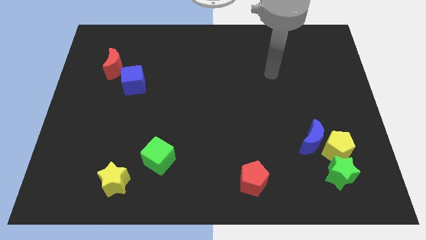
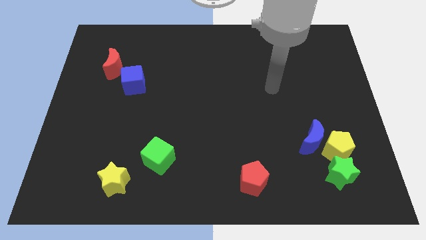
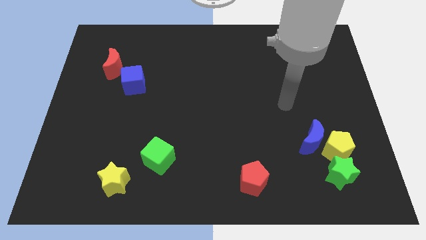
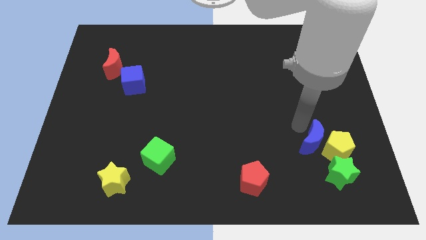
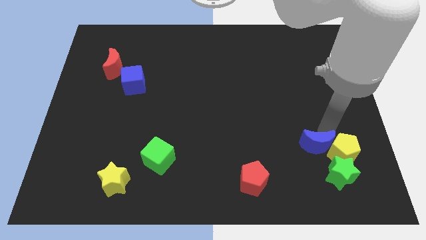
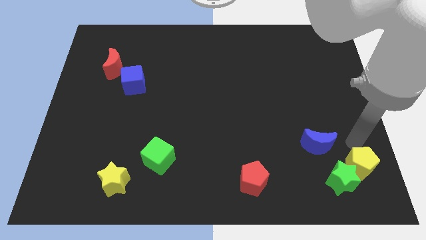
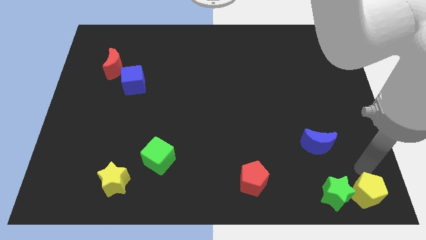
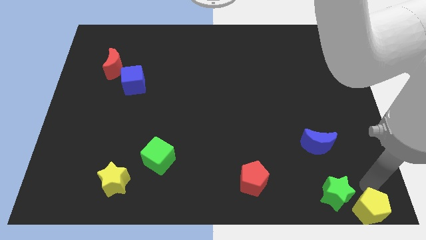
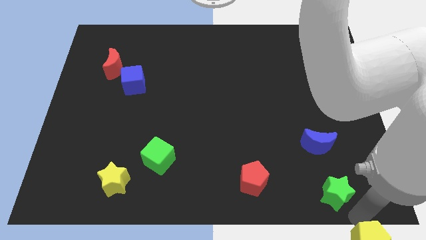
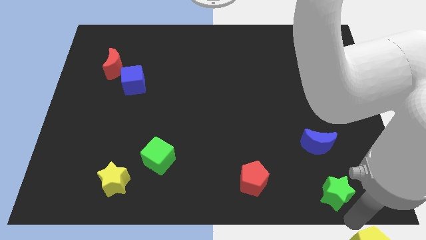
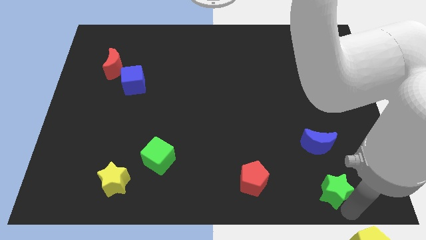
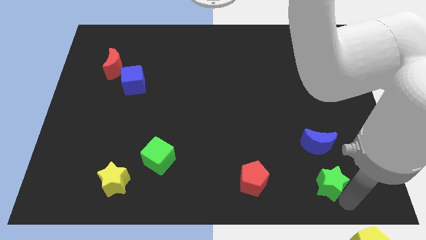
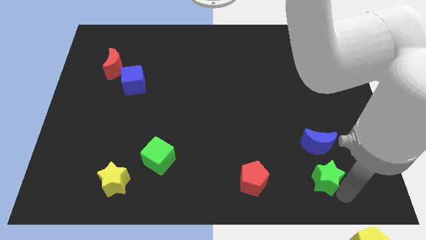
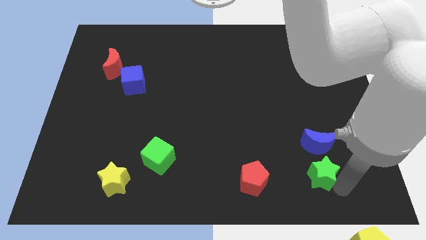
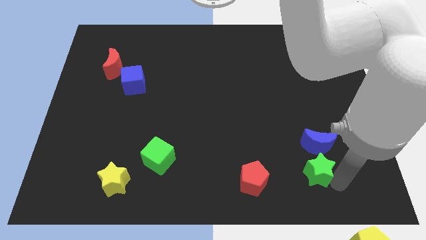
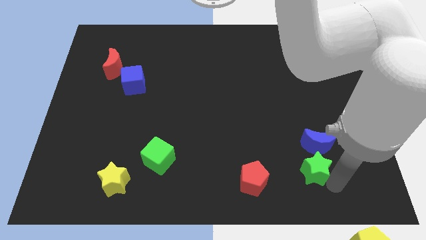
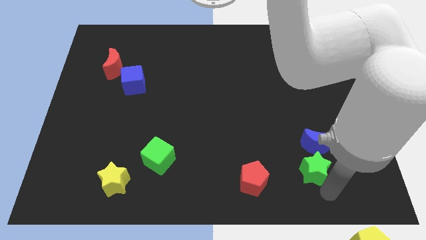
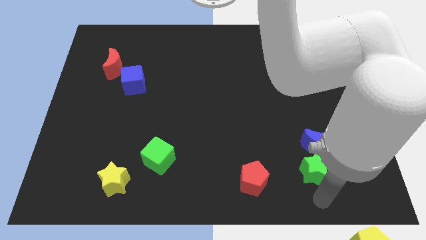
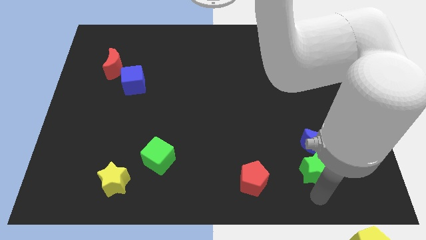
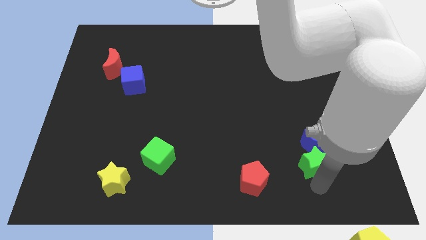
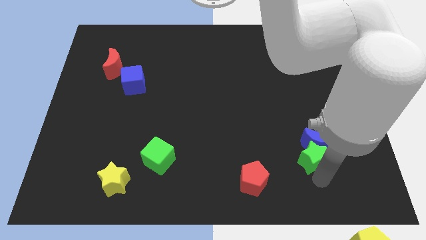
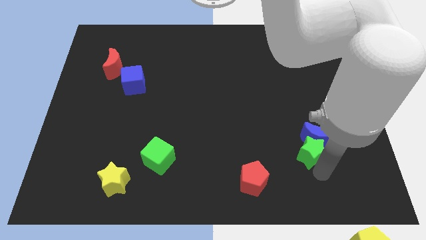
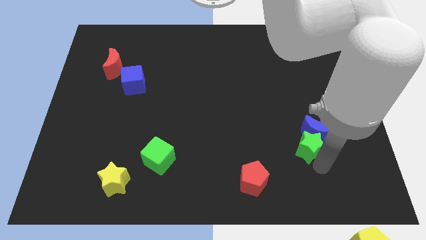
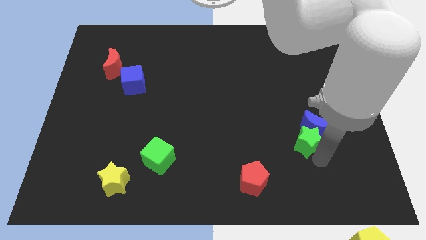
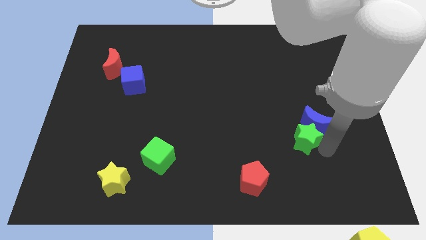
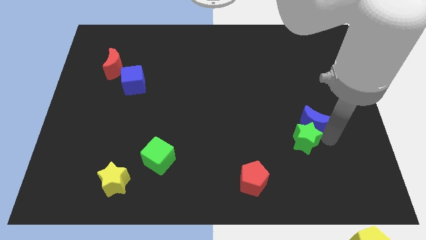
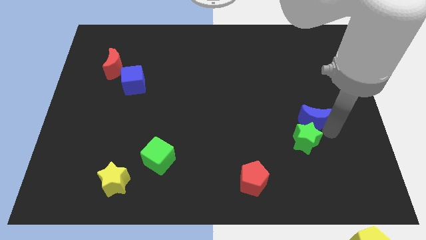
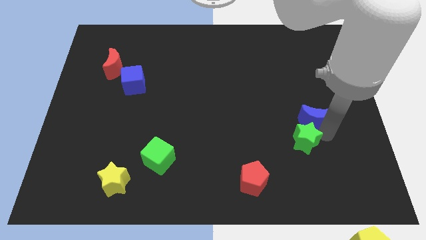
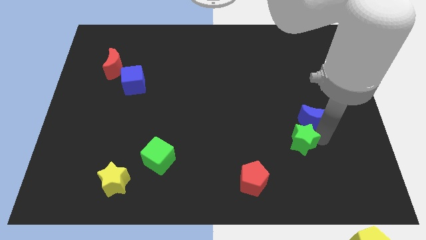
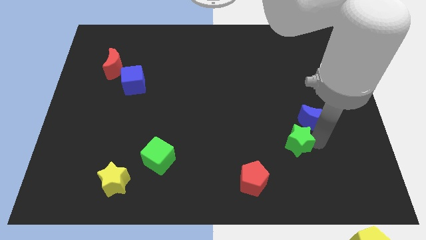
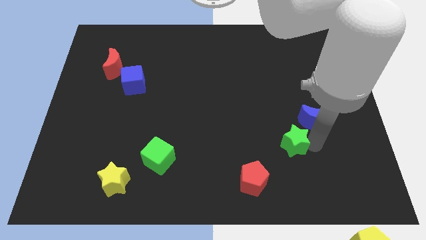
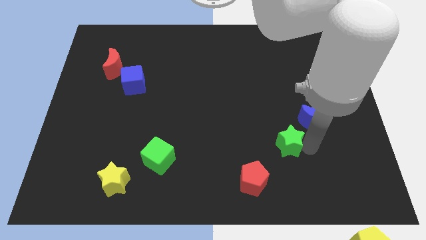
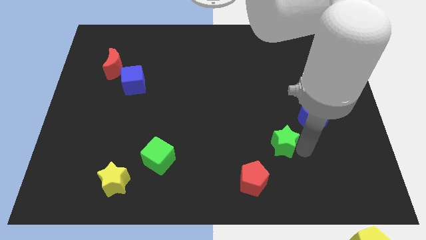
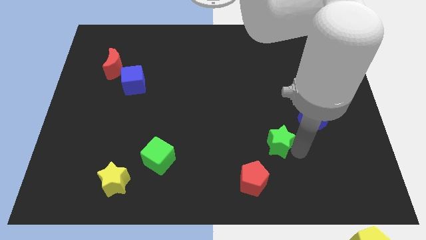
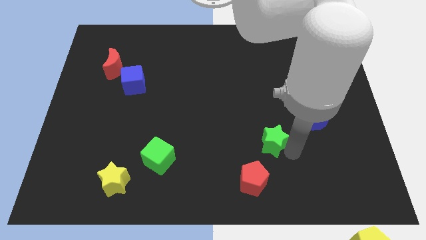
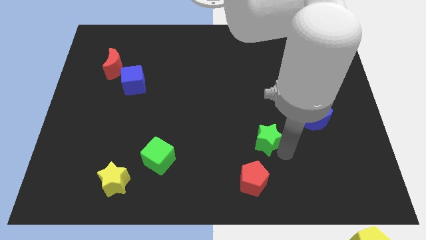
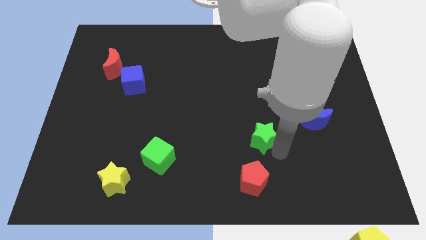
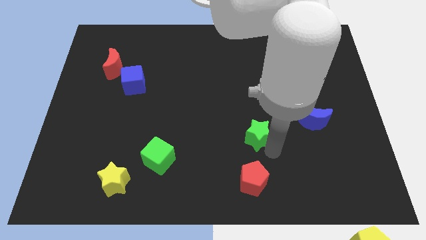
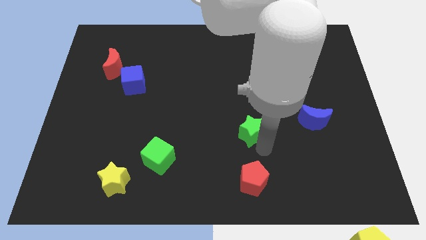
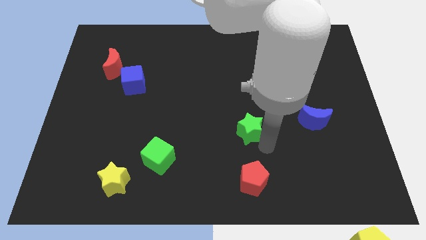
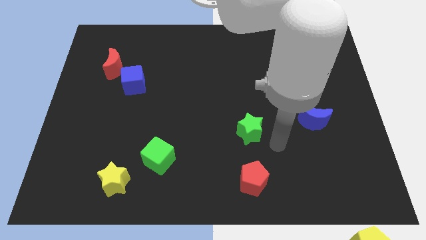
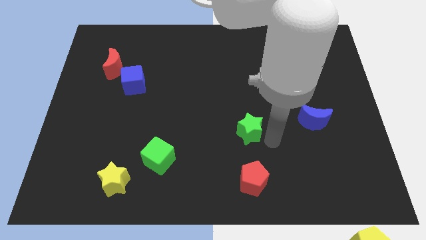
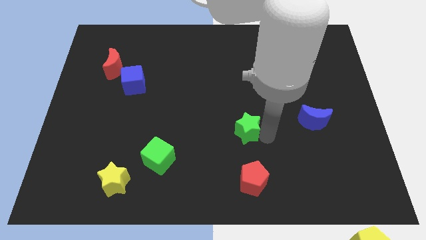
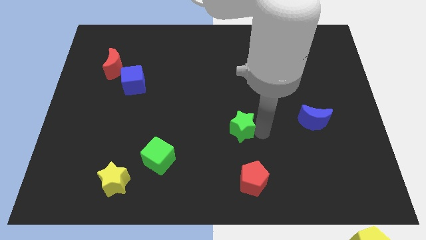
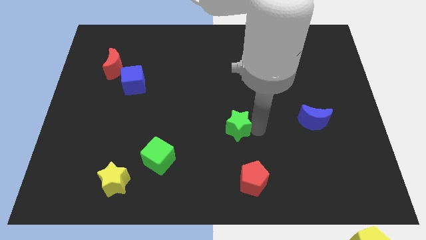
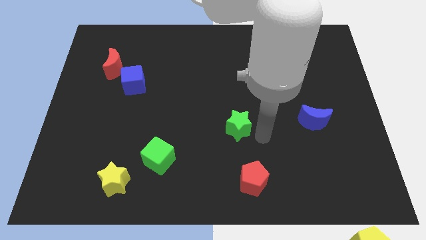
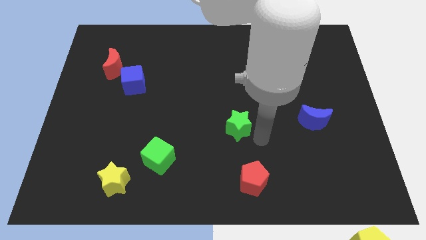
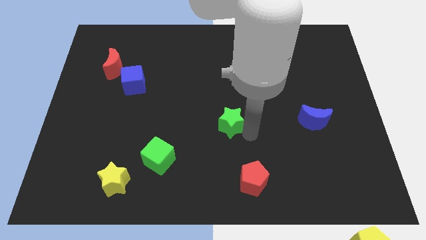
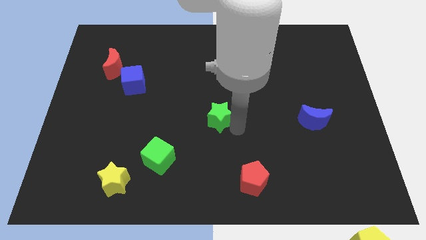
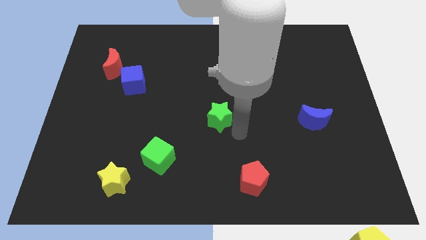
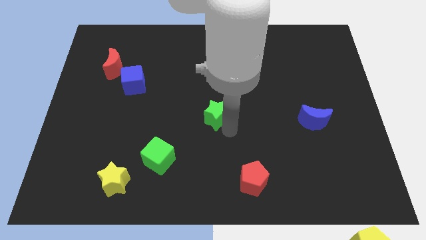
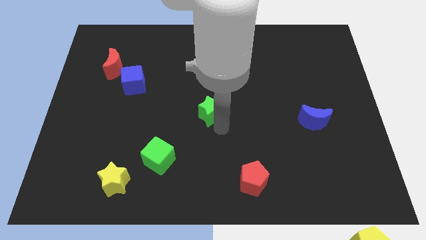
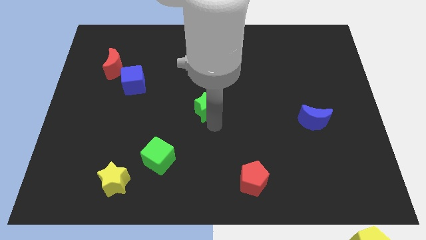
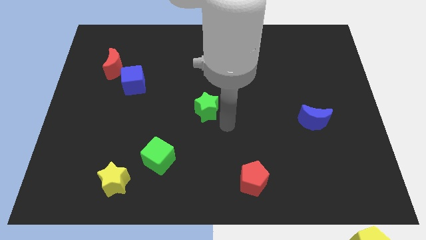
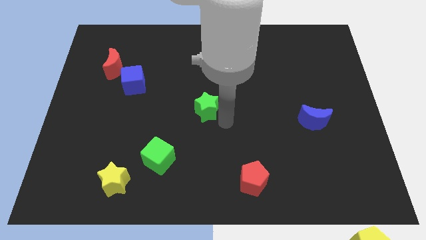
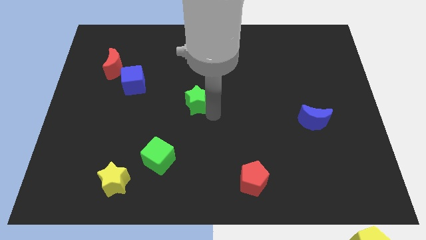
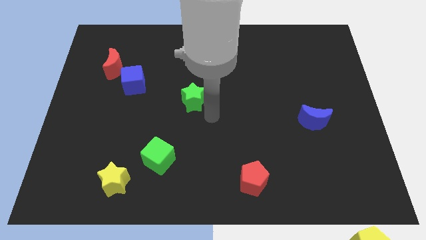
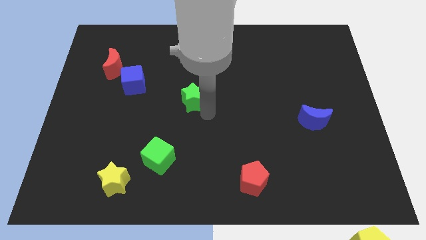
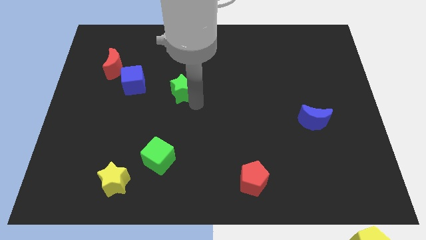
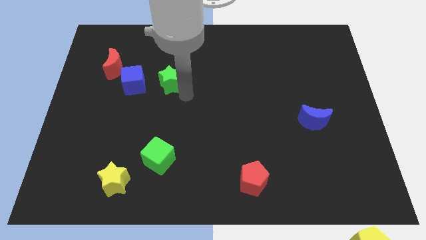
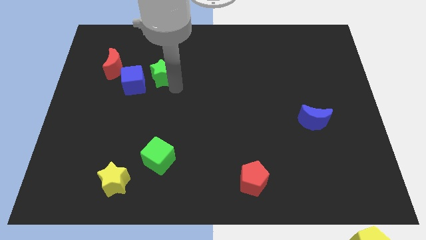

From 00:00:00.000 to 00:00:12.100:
put the green star to the top right of the blue cube
